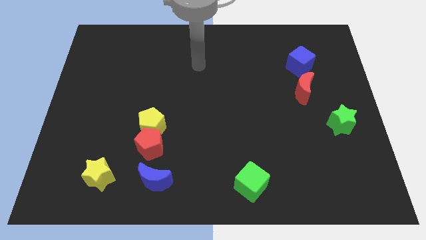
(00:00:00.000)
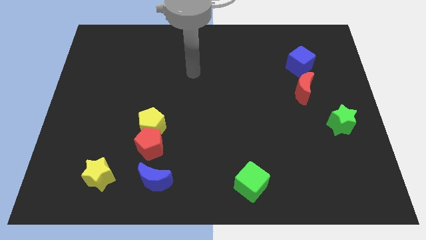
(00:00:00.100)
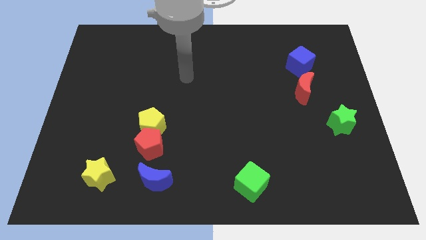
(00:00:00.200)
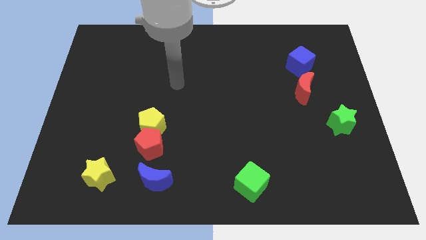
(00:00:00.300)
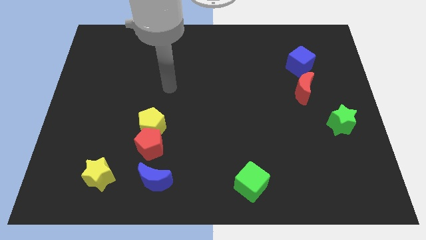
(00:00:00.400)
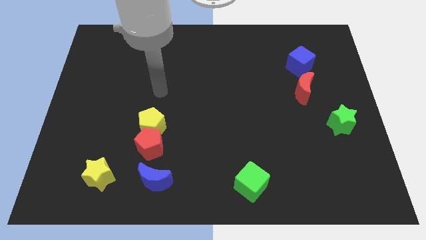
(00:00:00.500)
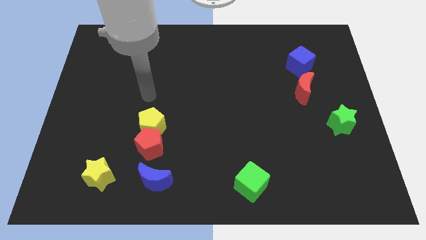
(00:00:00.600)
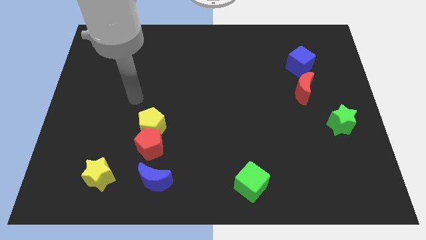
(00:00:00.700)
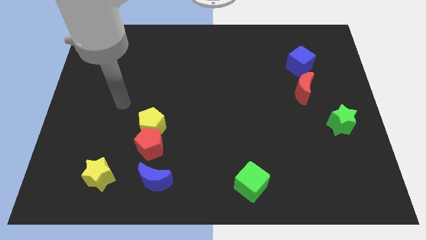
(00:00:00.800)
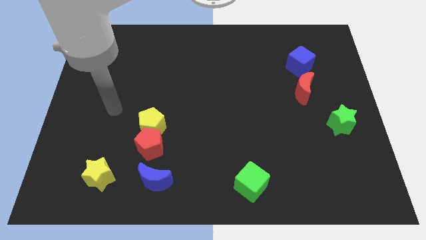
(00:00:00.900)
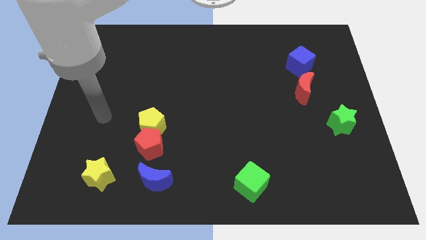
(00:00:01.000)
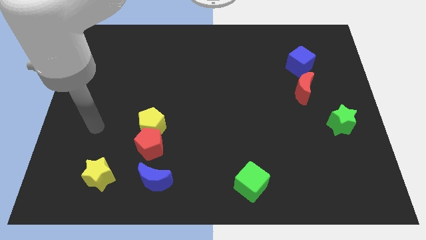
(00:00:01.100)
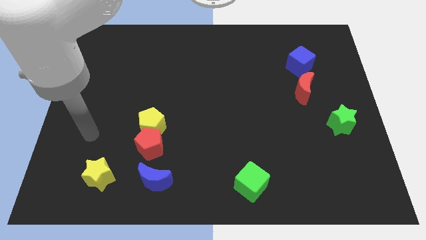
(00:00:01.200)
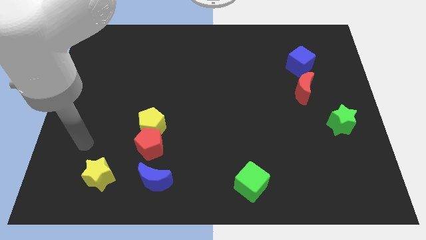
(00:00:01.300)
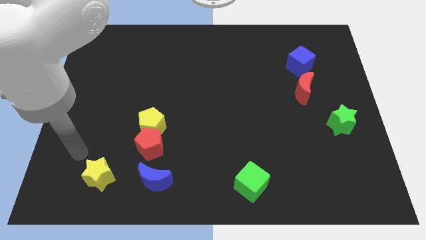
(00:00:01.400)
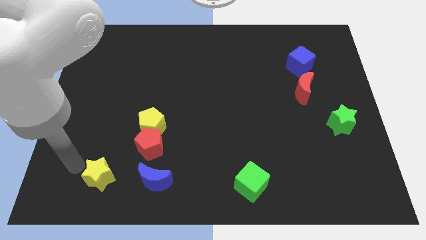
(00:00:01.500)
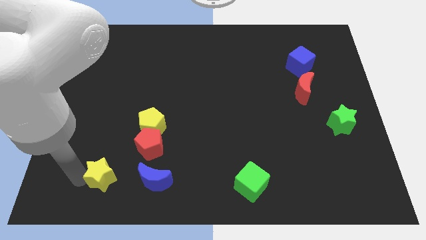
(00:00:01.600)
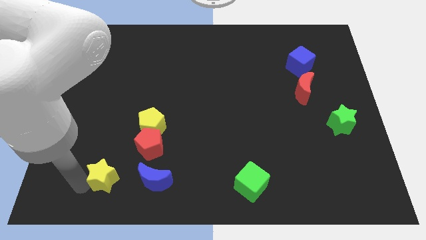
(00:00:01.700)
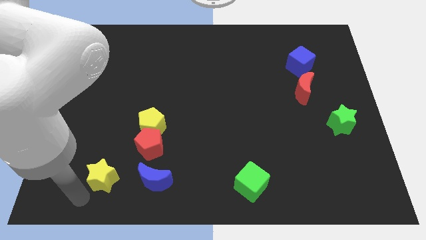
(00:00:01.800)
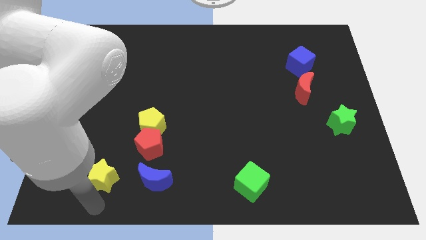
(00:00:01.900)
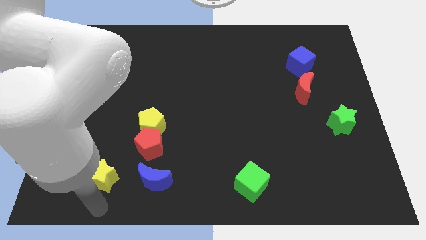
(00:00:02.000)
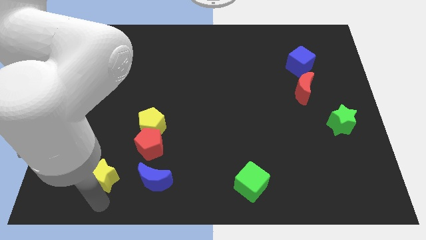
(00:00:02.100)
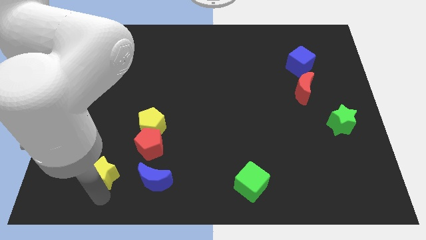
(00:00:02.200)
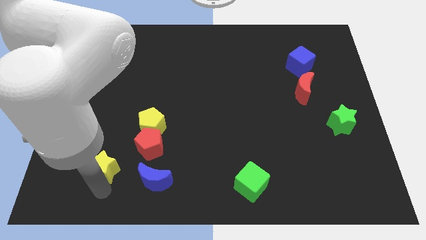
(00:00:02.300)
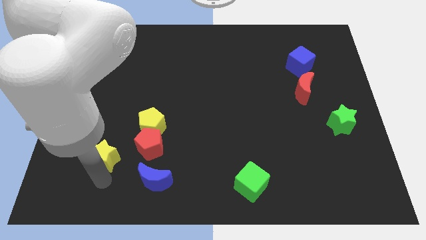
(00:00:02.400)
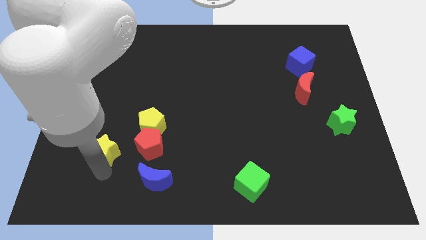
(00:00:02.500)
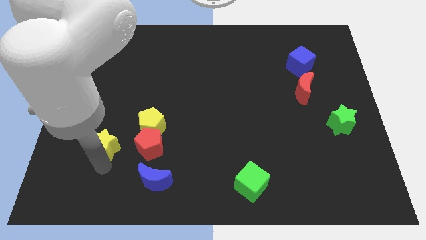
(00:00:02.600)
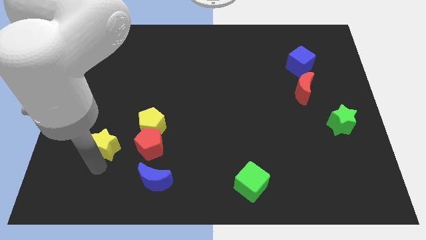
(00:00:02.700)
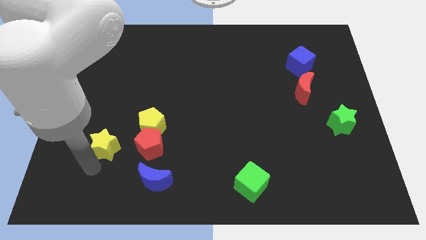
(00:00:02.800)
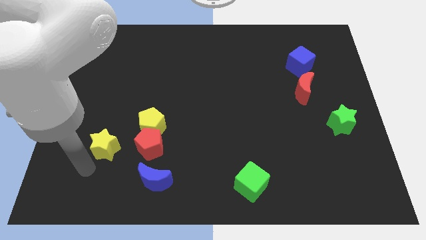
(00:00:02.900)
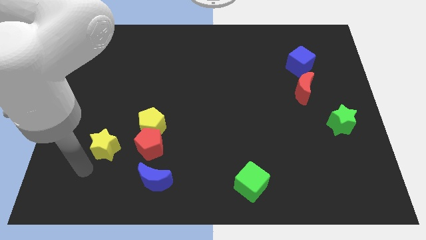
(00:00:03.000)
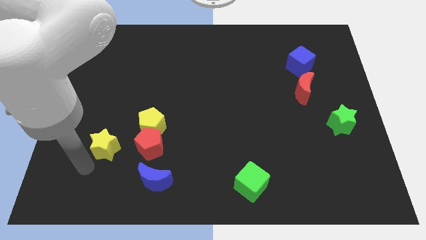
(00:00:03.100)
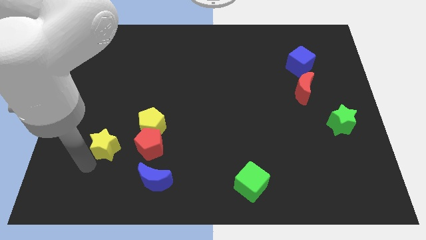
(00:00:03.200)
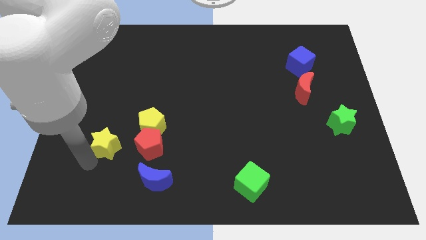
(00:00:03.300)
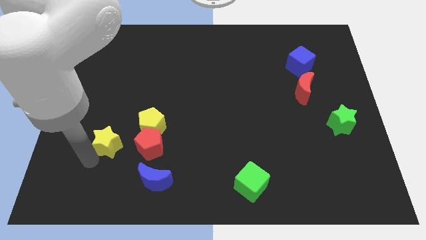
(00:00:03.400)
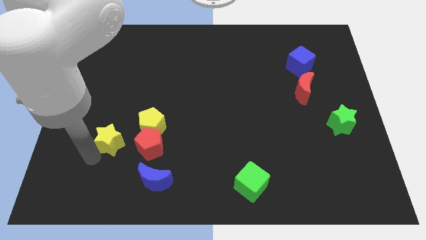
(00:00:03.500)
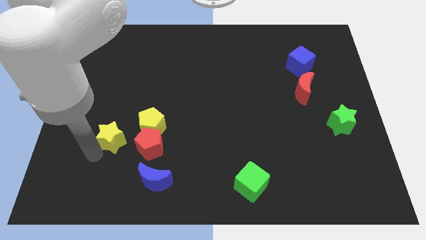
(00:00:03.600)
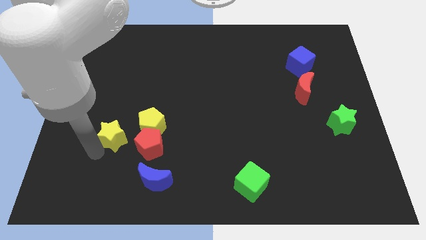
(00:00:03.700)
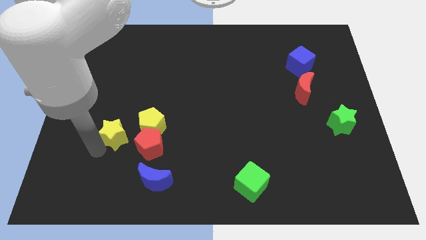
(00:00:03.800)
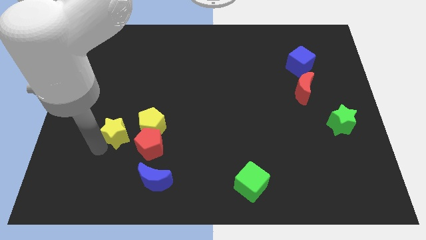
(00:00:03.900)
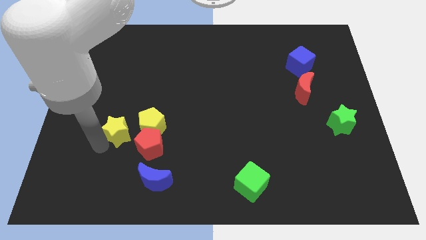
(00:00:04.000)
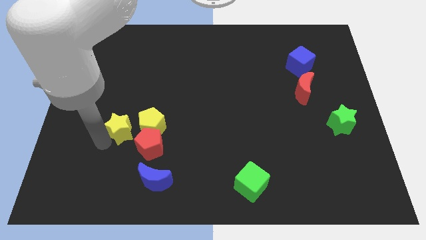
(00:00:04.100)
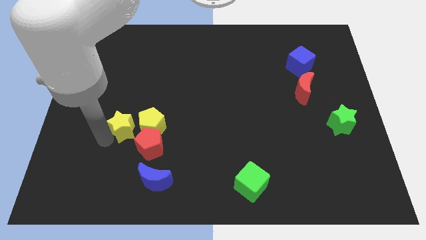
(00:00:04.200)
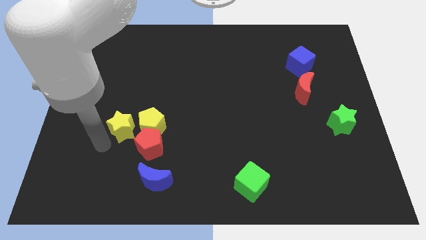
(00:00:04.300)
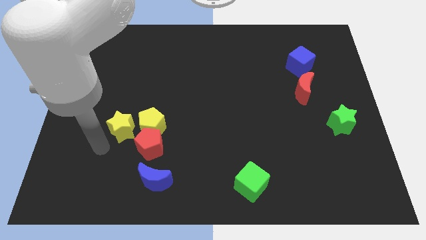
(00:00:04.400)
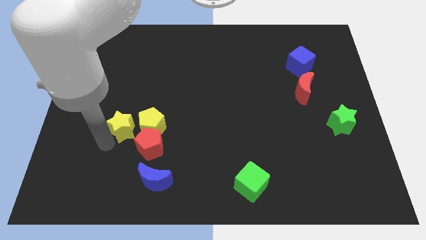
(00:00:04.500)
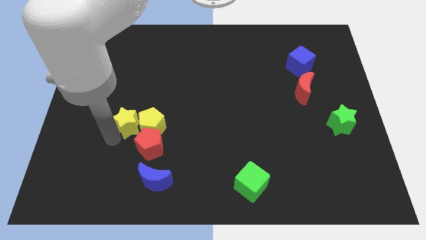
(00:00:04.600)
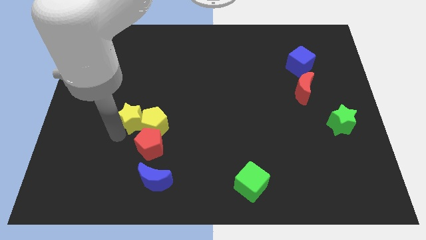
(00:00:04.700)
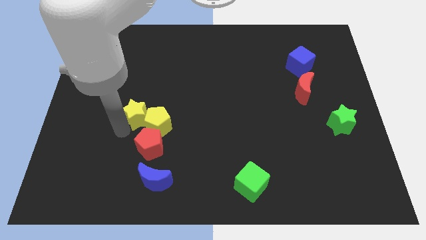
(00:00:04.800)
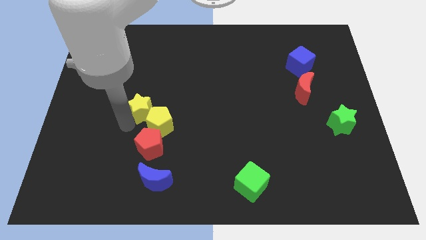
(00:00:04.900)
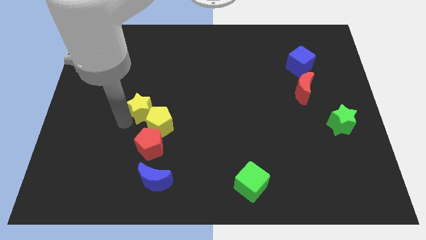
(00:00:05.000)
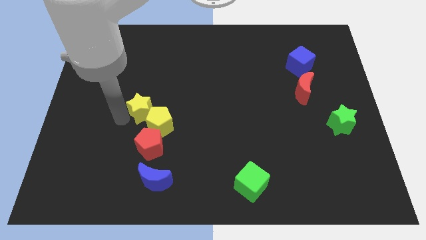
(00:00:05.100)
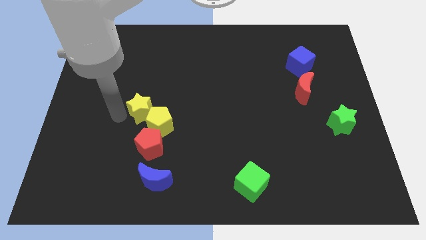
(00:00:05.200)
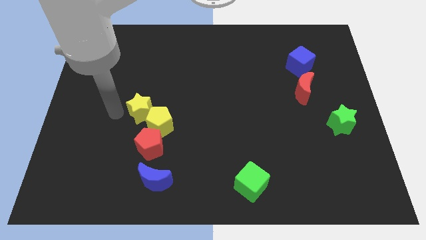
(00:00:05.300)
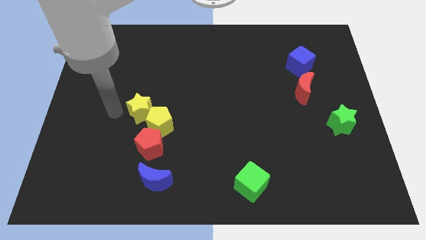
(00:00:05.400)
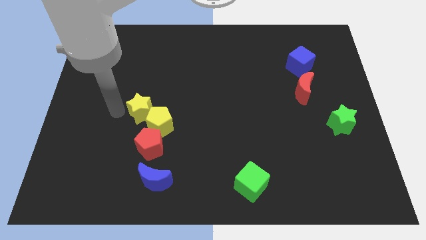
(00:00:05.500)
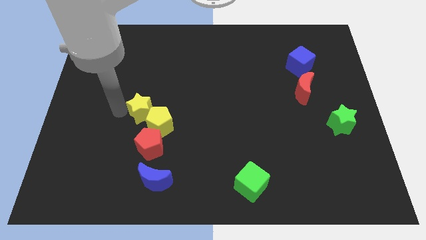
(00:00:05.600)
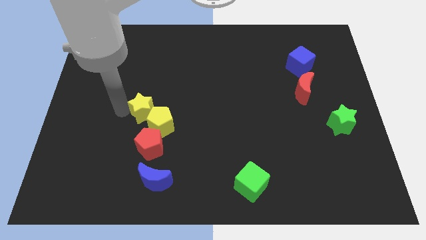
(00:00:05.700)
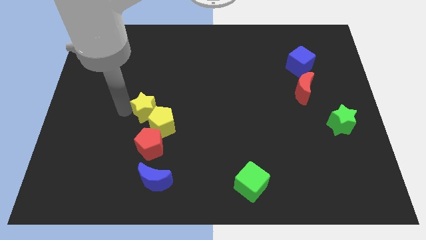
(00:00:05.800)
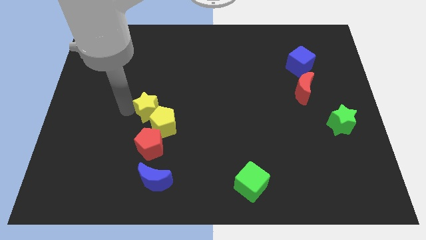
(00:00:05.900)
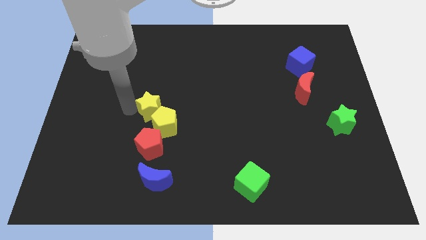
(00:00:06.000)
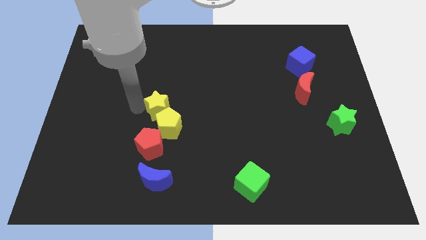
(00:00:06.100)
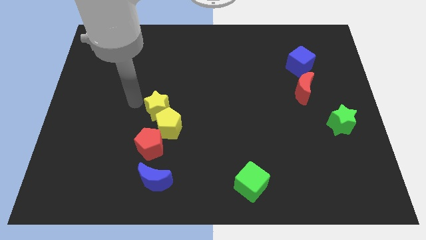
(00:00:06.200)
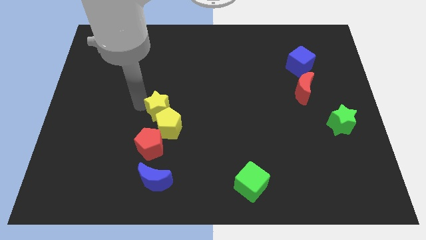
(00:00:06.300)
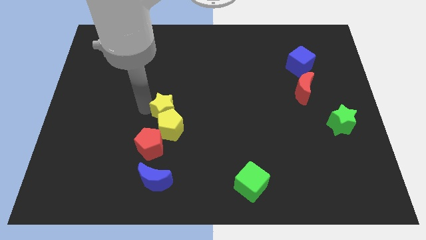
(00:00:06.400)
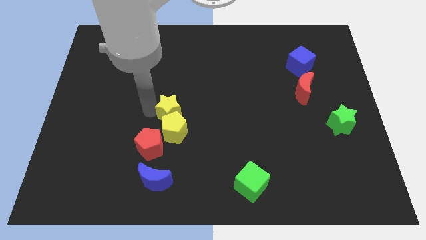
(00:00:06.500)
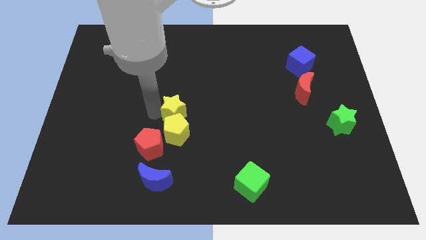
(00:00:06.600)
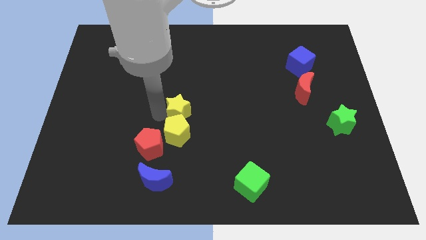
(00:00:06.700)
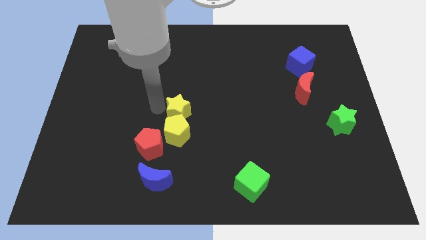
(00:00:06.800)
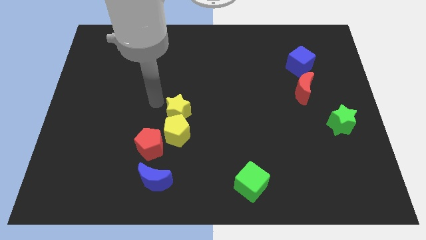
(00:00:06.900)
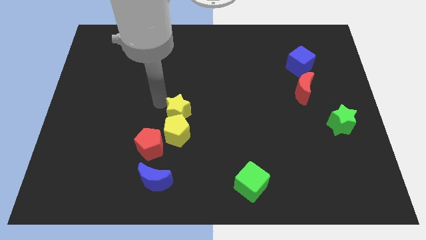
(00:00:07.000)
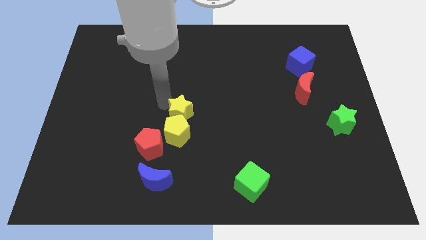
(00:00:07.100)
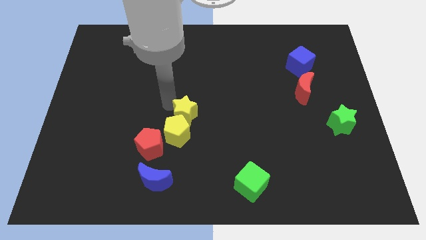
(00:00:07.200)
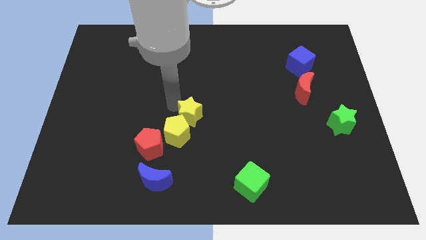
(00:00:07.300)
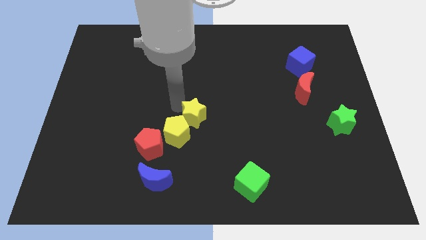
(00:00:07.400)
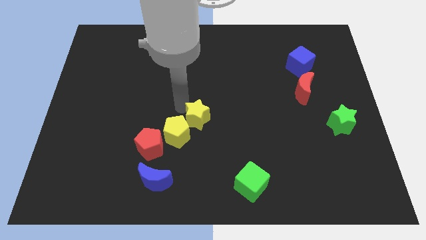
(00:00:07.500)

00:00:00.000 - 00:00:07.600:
put the yellow star to the right of the yellow pentagon

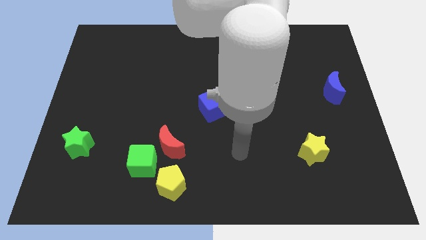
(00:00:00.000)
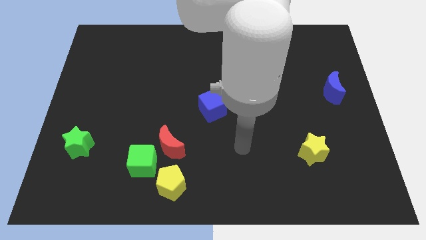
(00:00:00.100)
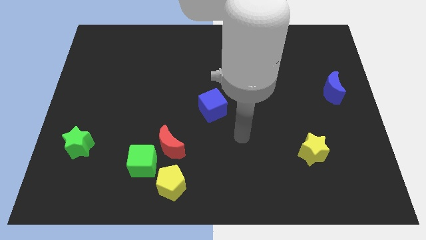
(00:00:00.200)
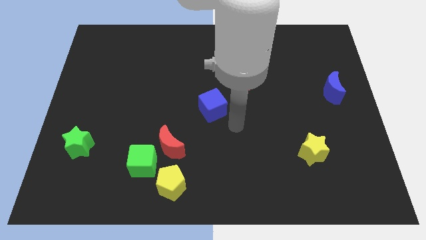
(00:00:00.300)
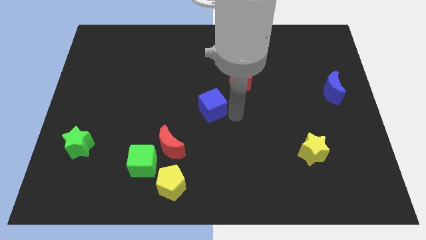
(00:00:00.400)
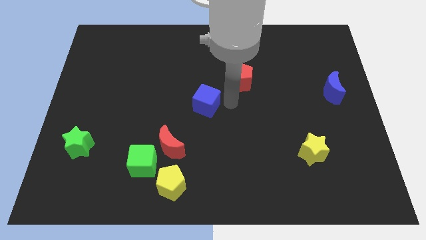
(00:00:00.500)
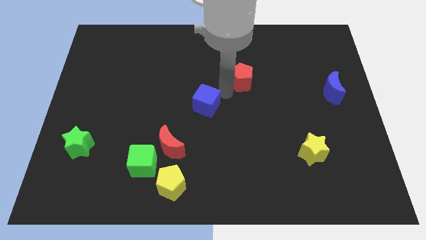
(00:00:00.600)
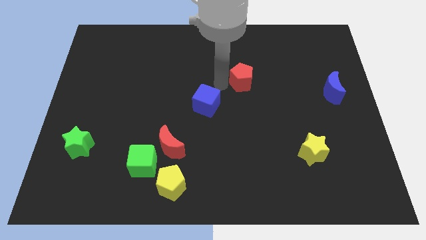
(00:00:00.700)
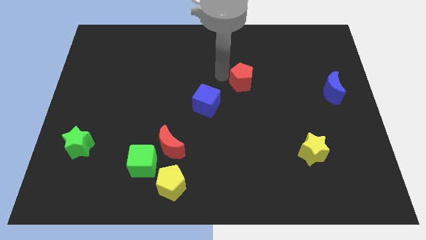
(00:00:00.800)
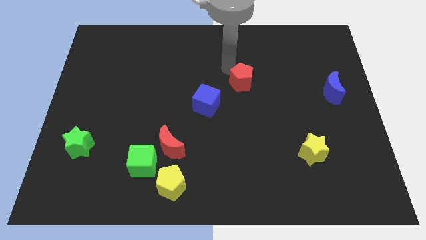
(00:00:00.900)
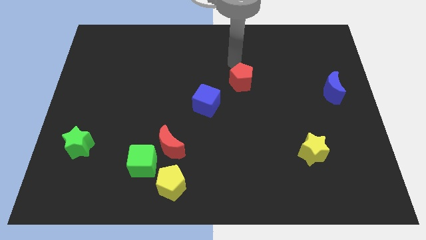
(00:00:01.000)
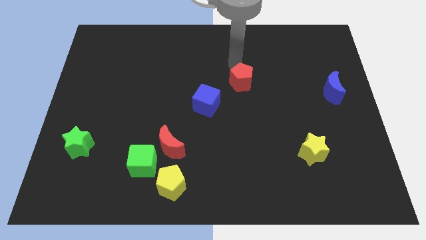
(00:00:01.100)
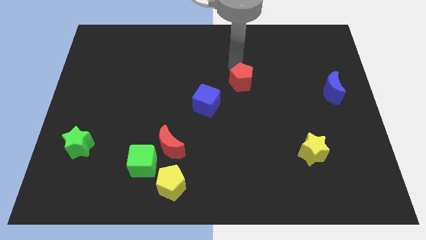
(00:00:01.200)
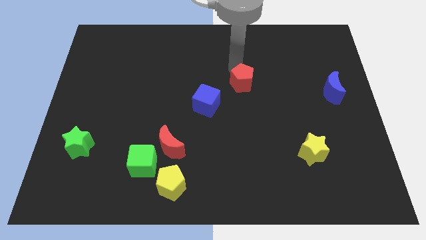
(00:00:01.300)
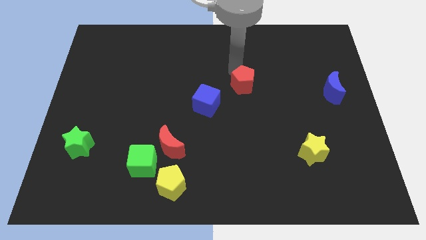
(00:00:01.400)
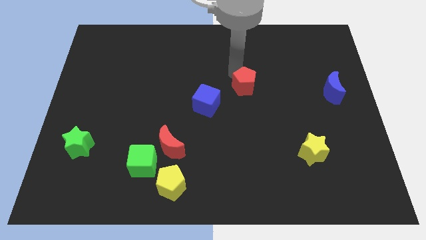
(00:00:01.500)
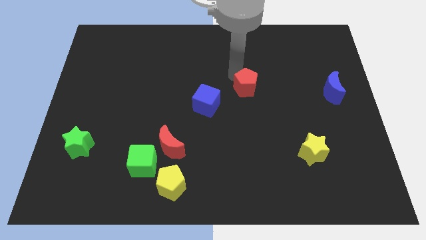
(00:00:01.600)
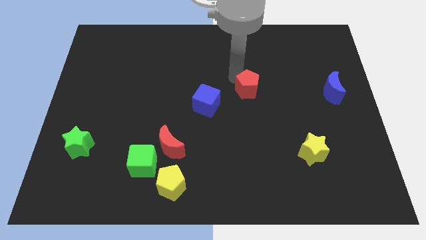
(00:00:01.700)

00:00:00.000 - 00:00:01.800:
put the red pentagon to the right side of the blue cube
